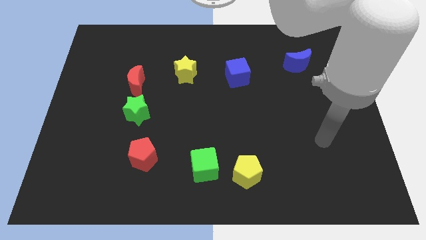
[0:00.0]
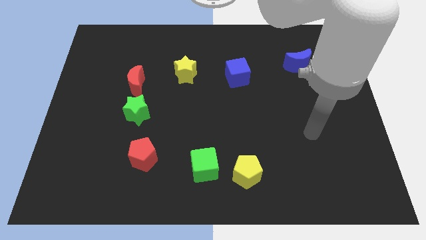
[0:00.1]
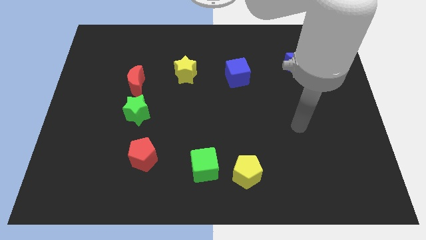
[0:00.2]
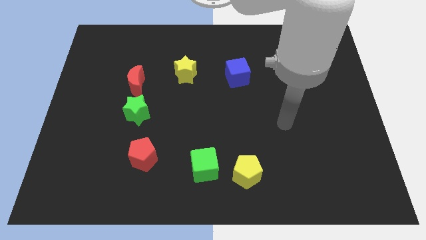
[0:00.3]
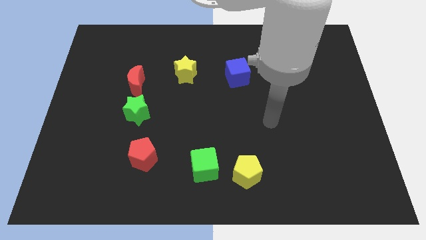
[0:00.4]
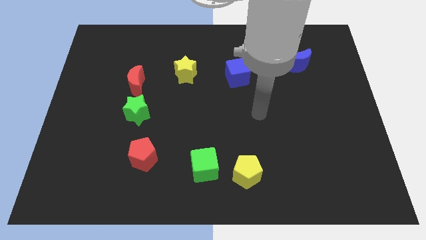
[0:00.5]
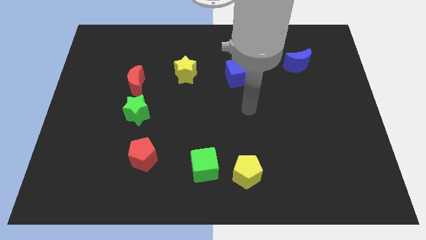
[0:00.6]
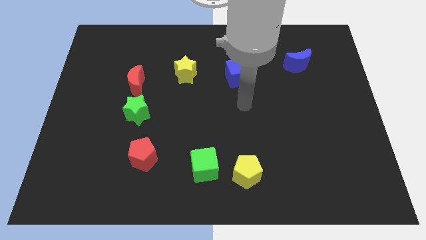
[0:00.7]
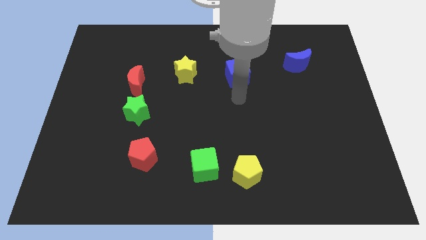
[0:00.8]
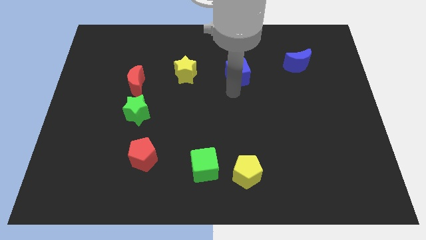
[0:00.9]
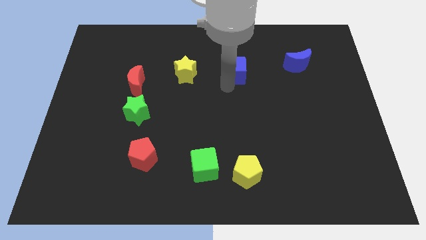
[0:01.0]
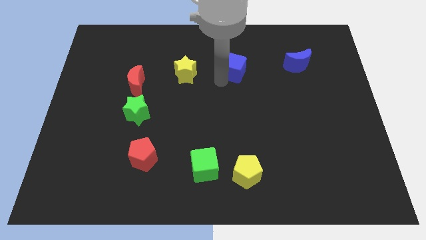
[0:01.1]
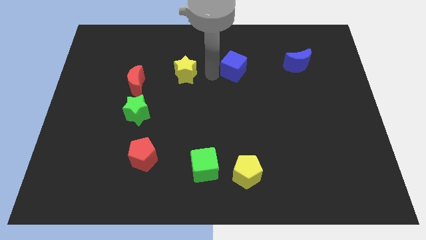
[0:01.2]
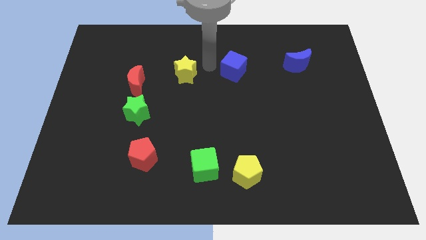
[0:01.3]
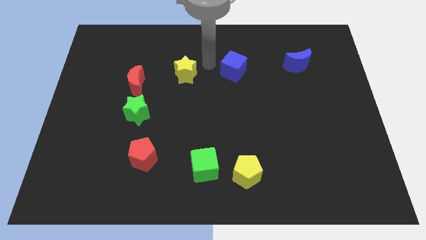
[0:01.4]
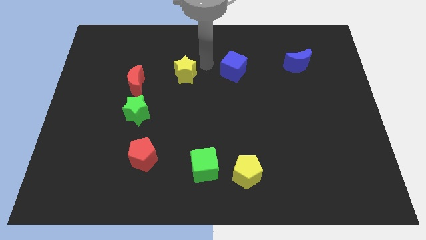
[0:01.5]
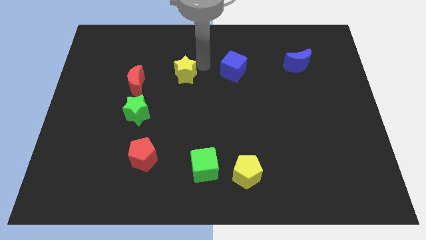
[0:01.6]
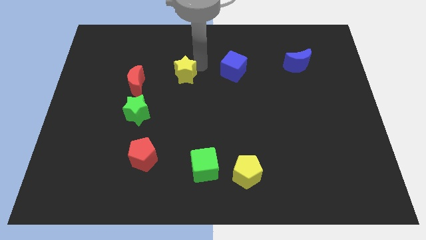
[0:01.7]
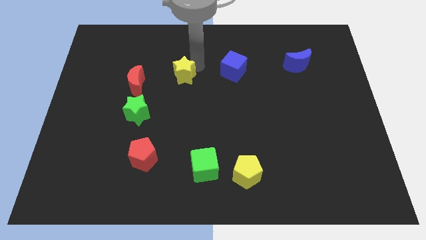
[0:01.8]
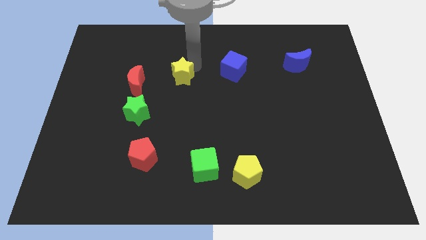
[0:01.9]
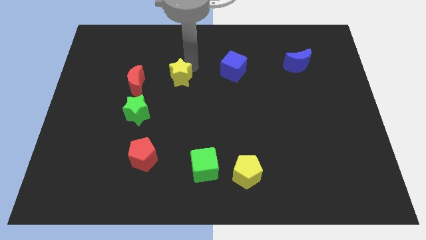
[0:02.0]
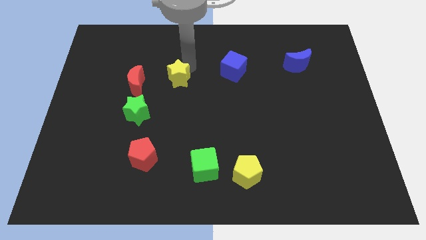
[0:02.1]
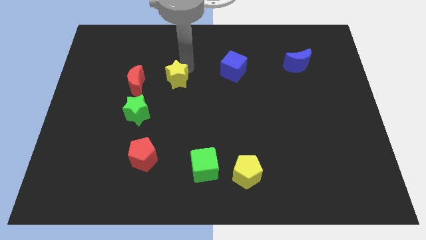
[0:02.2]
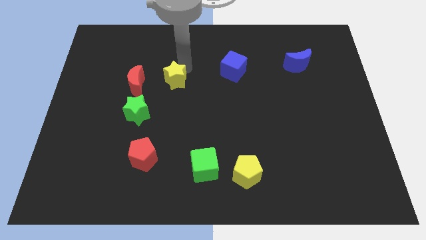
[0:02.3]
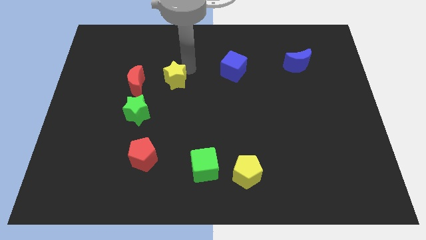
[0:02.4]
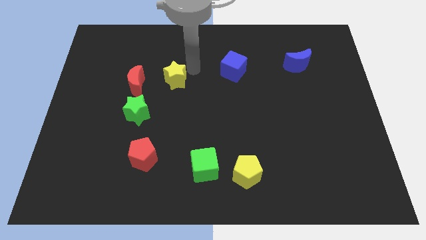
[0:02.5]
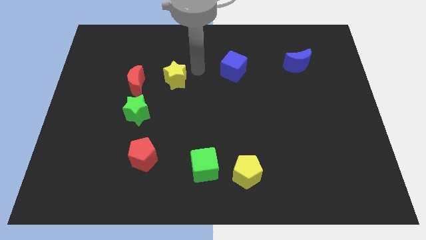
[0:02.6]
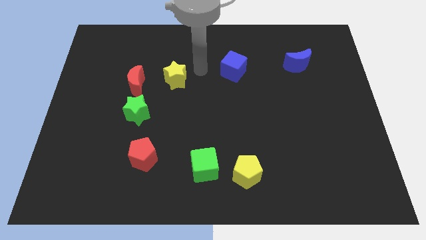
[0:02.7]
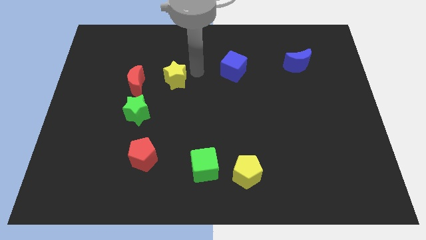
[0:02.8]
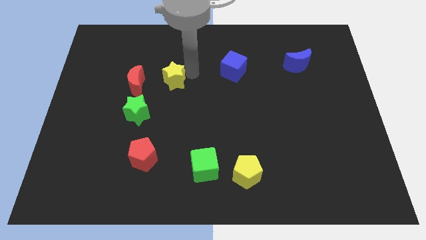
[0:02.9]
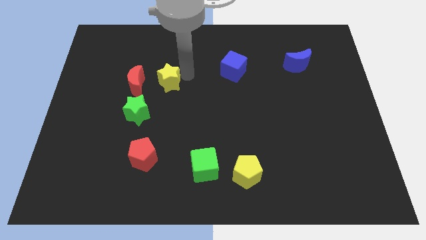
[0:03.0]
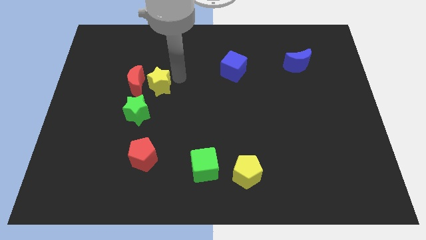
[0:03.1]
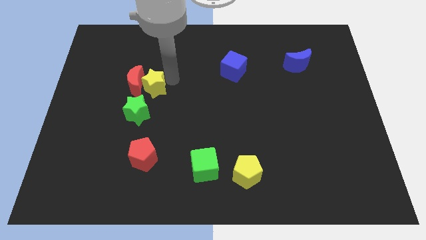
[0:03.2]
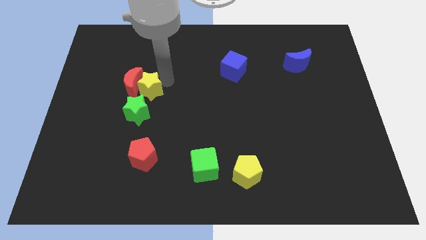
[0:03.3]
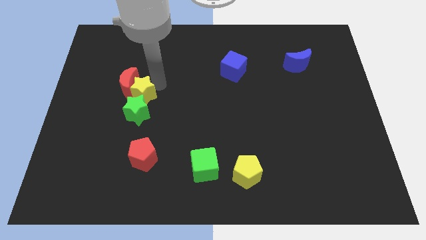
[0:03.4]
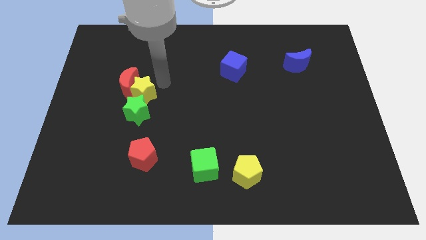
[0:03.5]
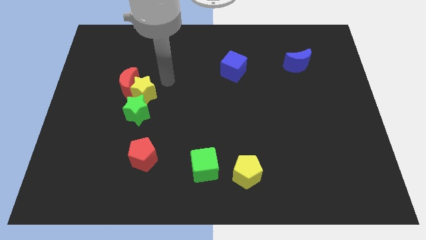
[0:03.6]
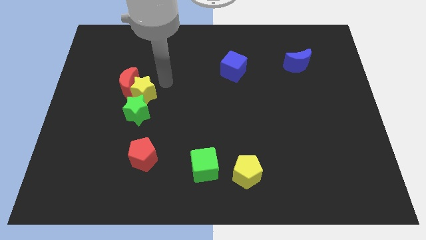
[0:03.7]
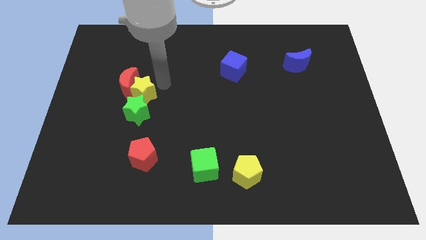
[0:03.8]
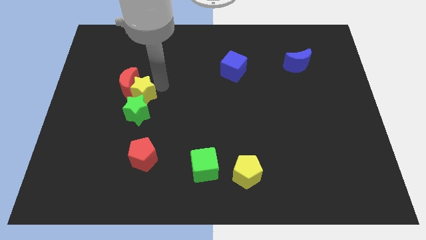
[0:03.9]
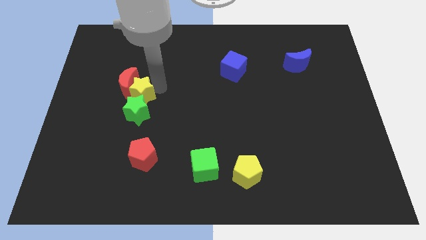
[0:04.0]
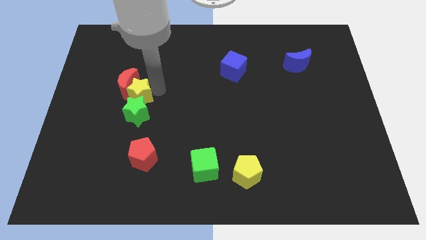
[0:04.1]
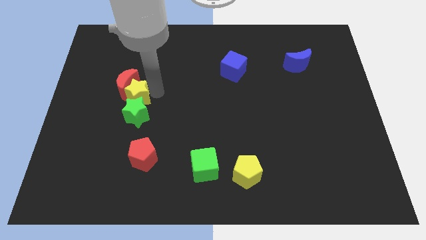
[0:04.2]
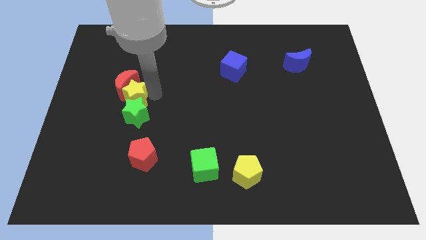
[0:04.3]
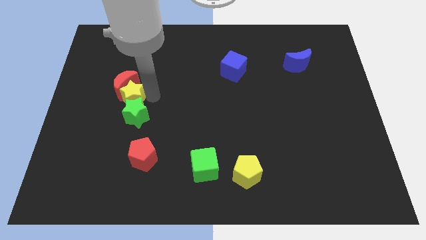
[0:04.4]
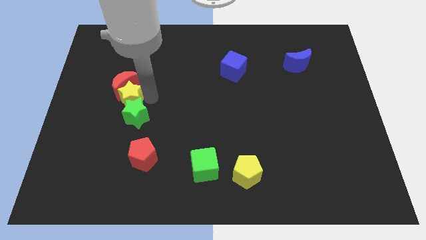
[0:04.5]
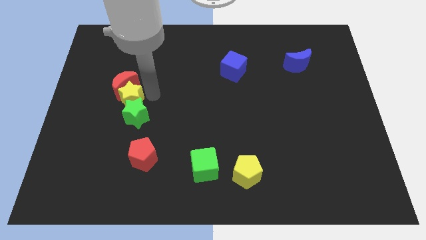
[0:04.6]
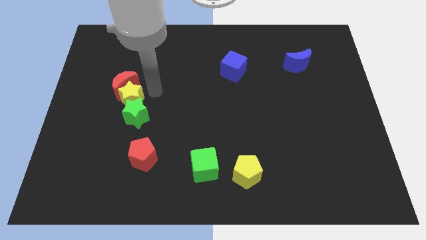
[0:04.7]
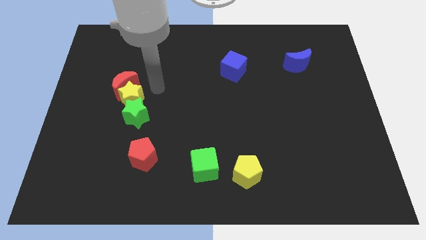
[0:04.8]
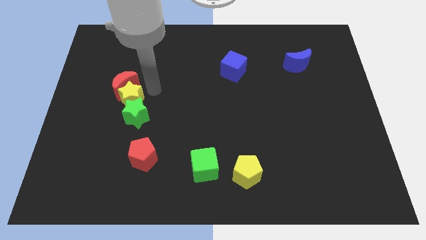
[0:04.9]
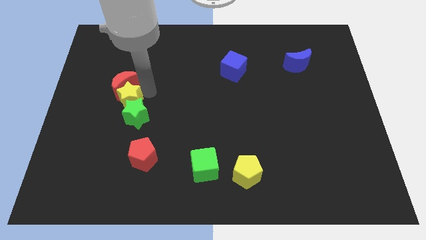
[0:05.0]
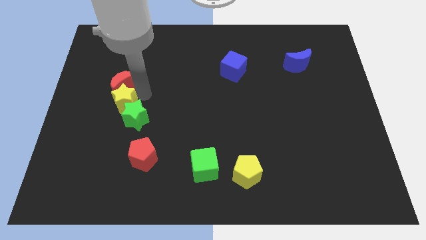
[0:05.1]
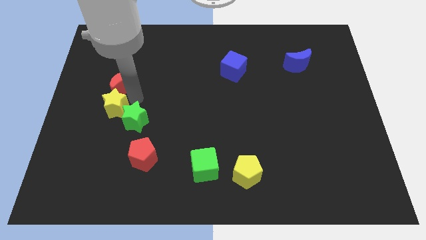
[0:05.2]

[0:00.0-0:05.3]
slide the yellow star to the left side of the green star

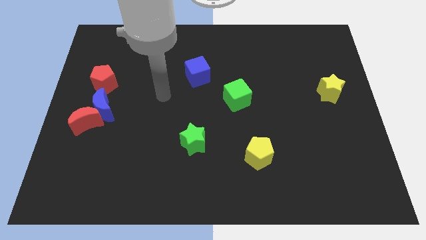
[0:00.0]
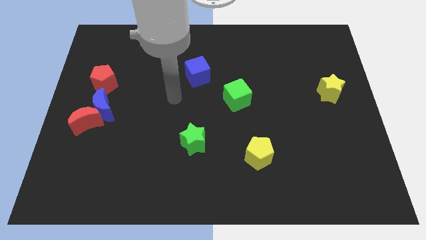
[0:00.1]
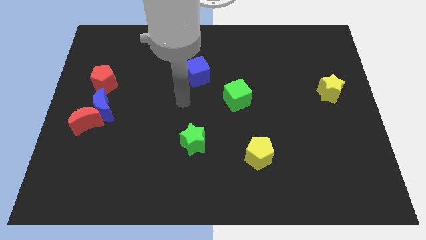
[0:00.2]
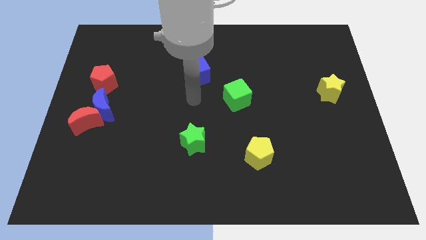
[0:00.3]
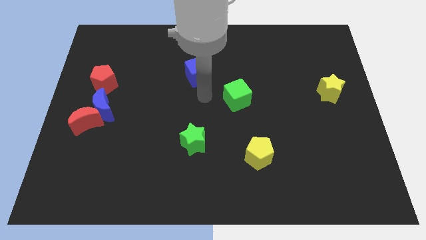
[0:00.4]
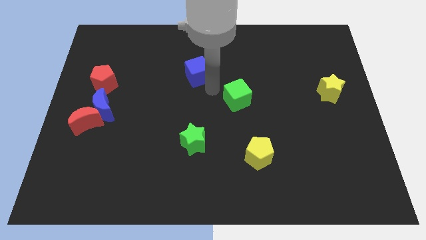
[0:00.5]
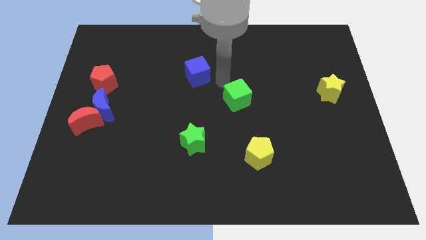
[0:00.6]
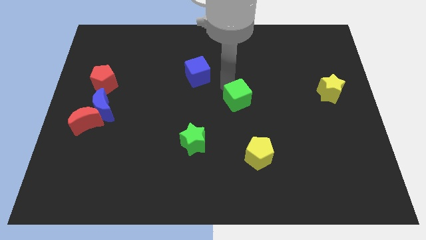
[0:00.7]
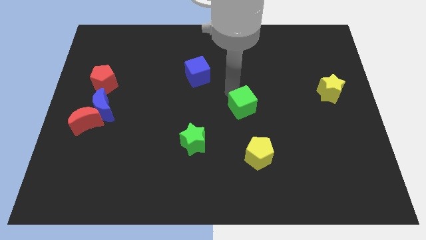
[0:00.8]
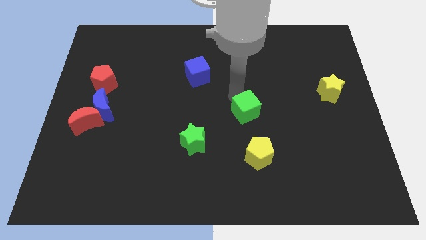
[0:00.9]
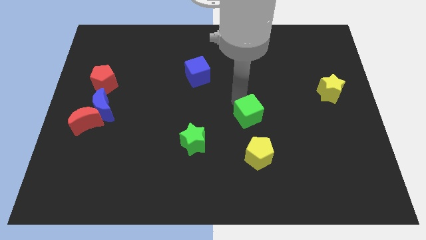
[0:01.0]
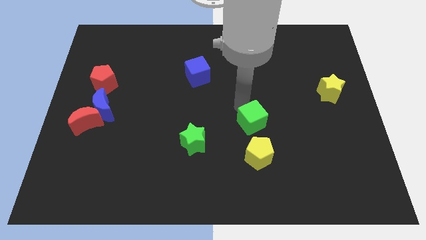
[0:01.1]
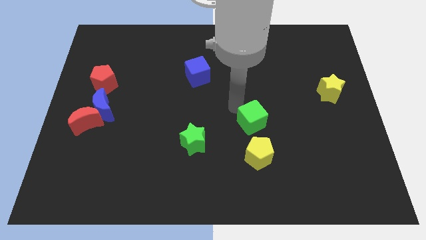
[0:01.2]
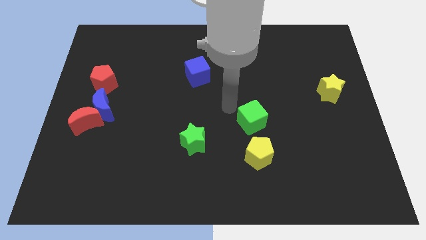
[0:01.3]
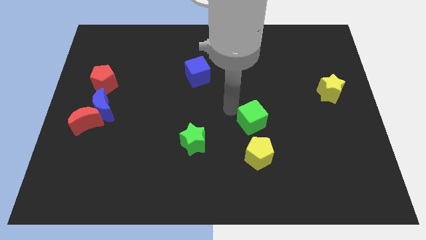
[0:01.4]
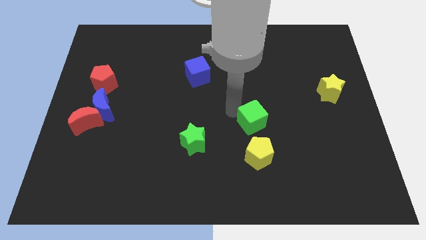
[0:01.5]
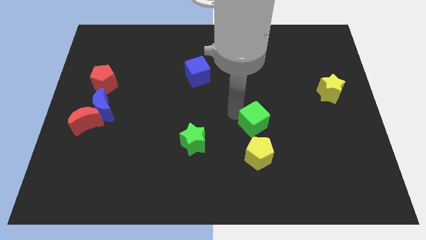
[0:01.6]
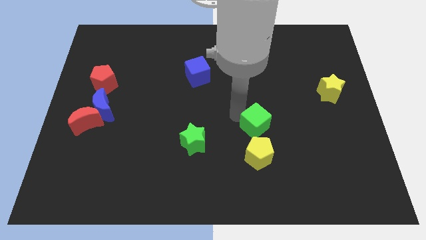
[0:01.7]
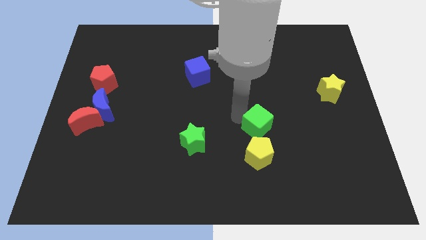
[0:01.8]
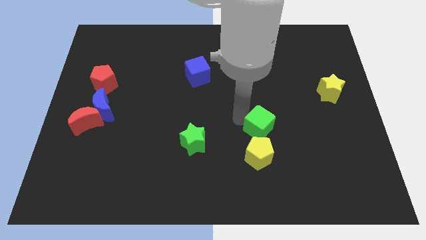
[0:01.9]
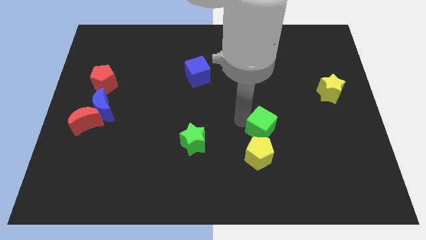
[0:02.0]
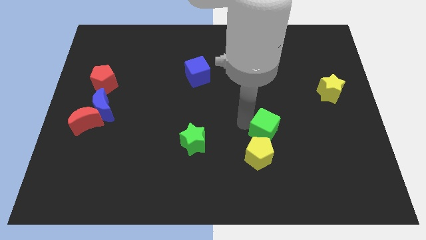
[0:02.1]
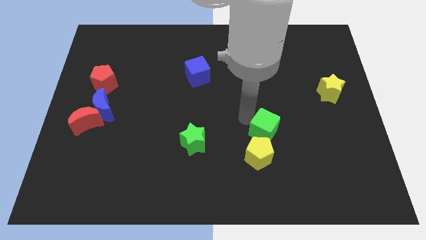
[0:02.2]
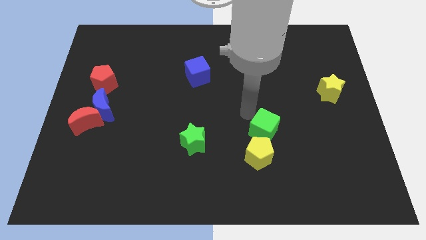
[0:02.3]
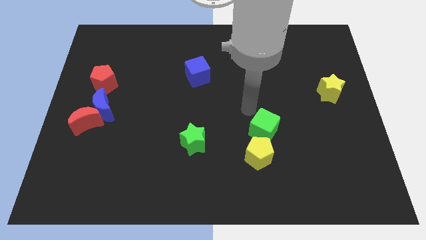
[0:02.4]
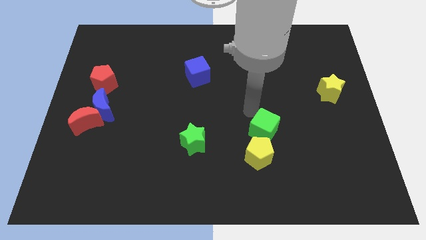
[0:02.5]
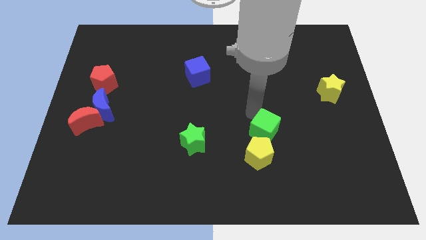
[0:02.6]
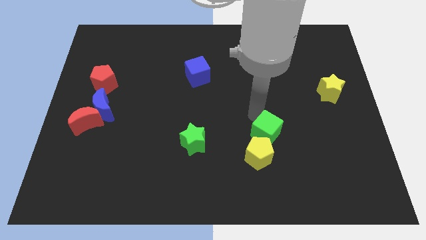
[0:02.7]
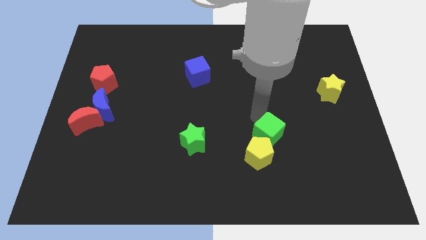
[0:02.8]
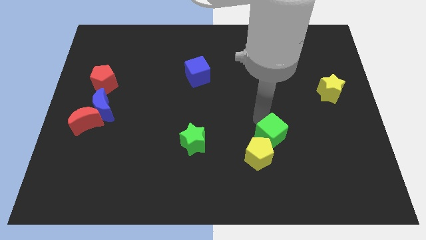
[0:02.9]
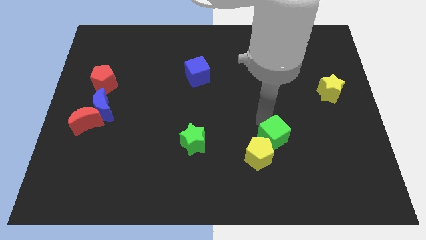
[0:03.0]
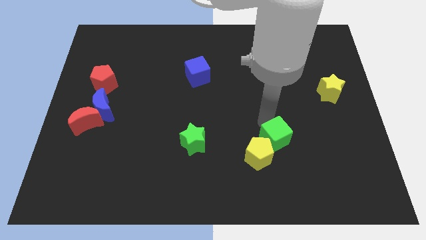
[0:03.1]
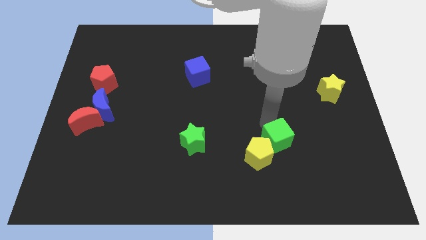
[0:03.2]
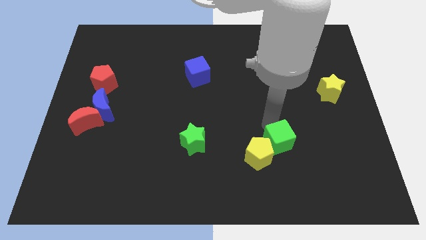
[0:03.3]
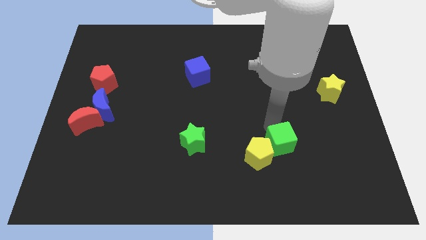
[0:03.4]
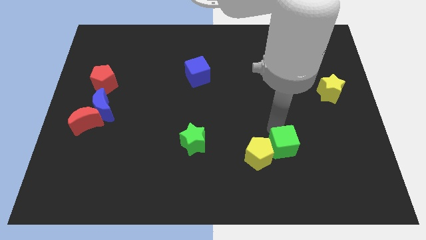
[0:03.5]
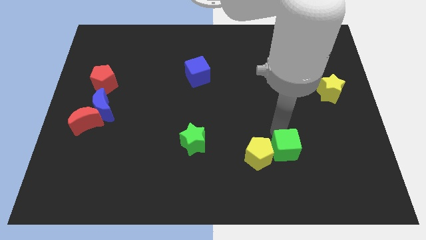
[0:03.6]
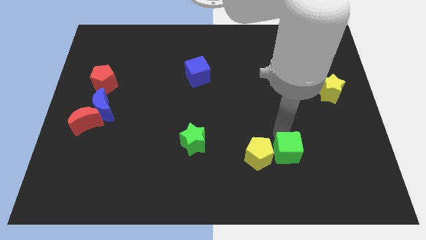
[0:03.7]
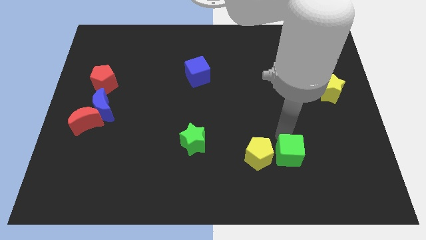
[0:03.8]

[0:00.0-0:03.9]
slide the green cube to the bottom right side of the yellow pentagon
